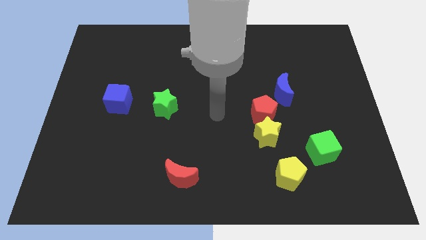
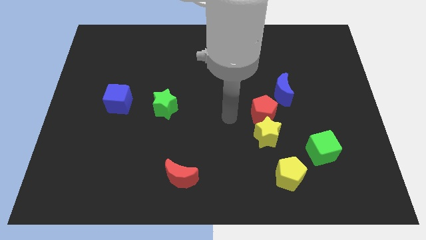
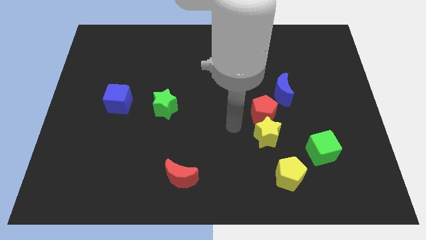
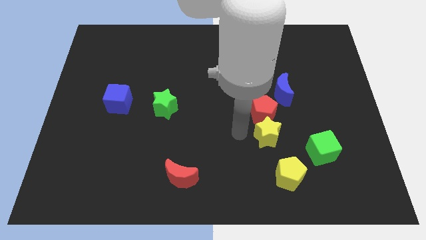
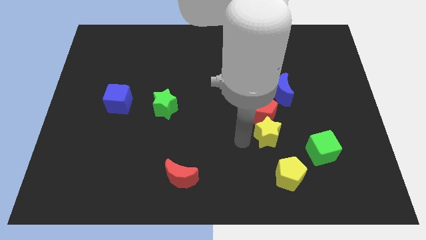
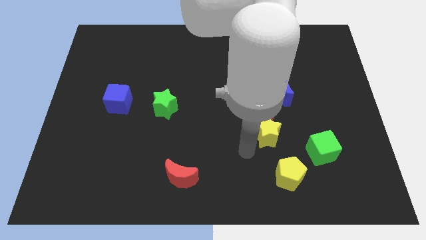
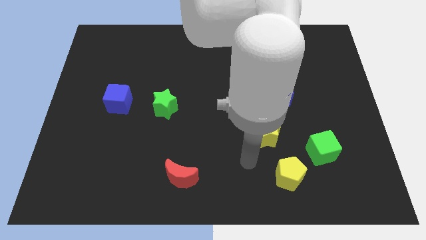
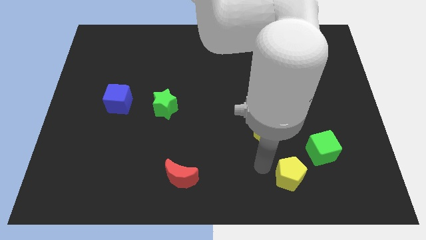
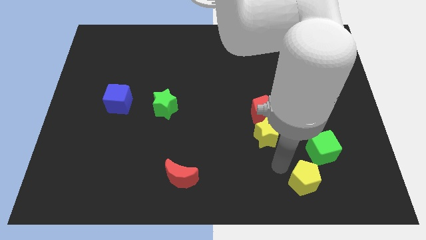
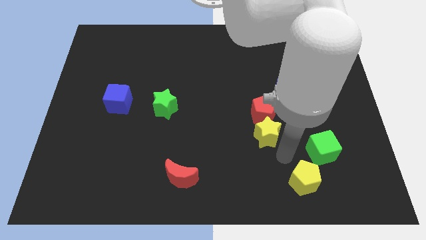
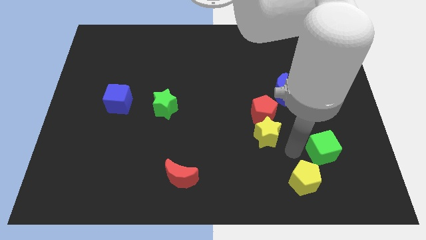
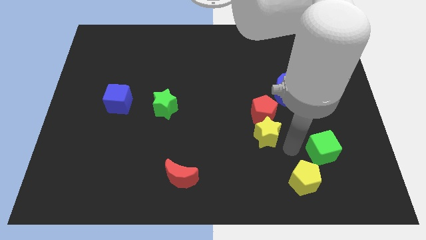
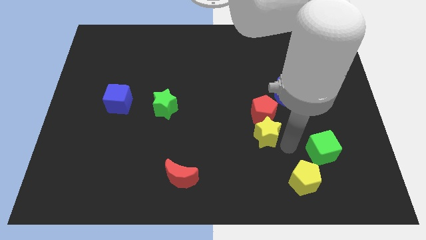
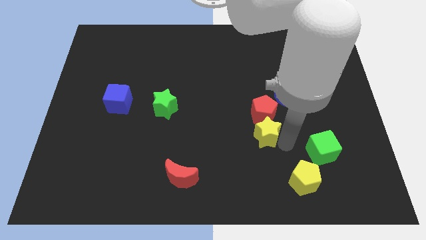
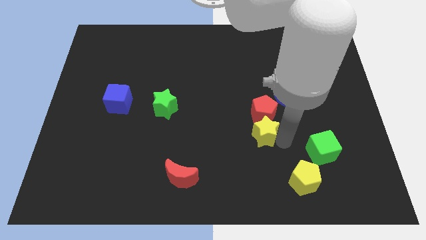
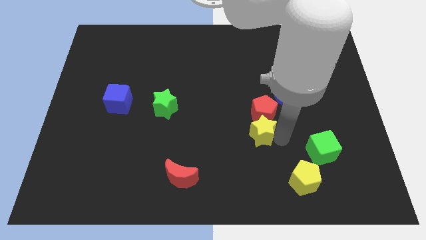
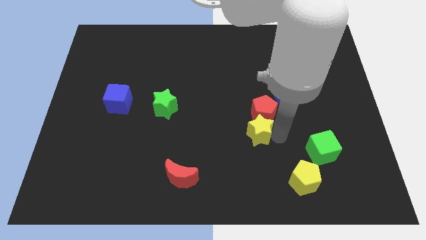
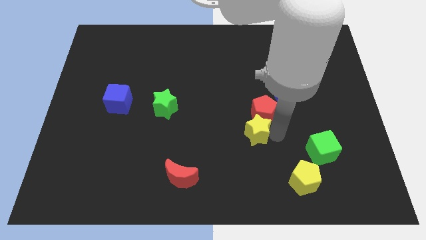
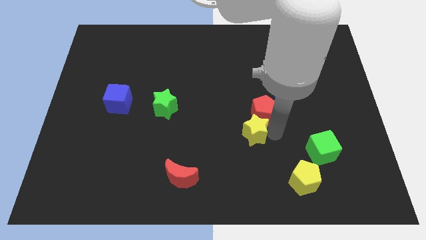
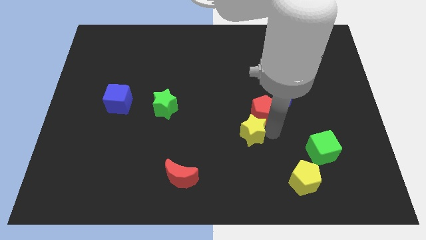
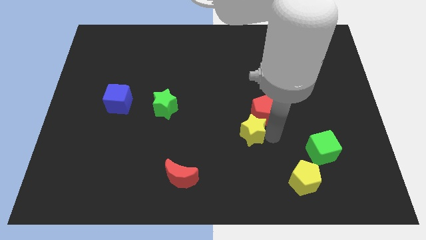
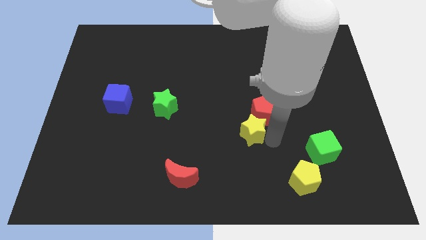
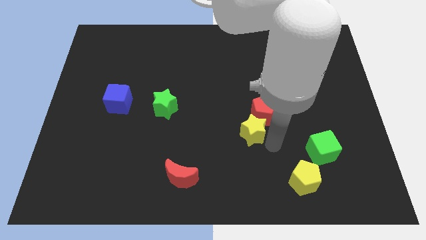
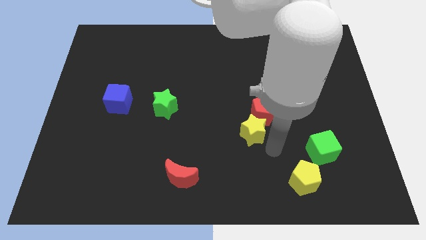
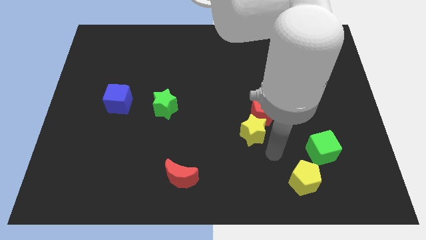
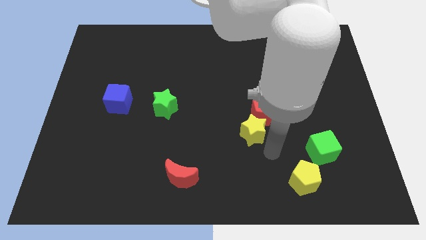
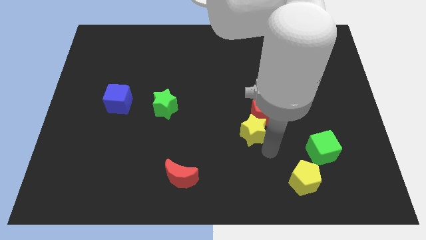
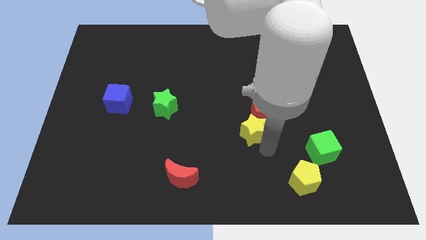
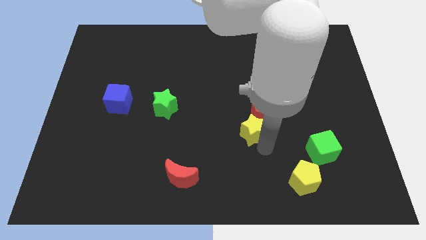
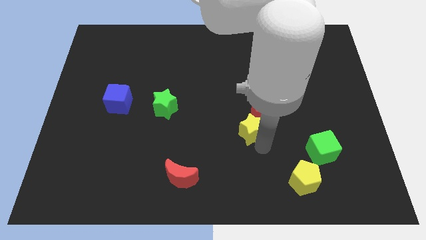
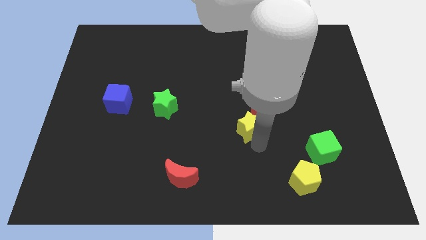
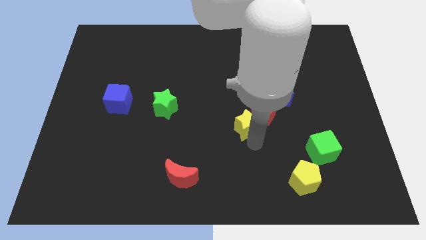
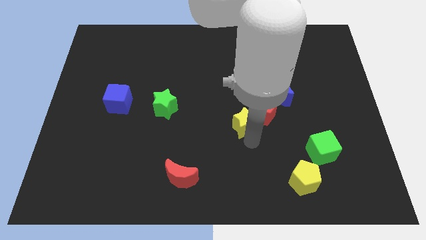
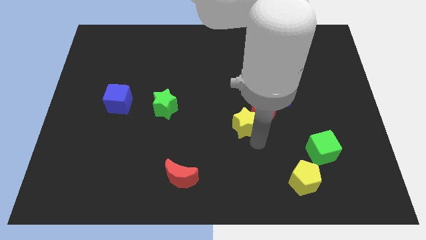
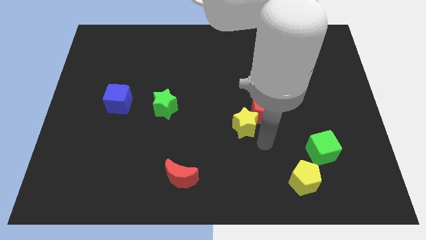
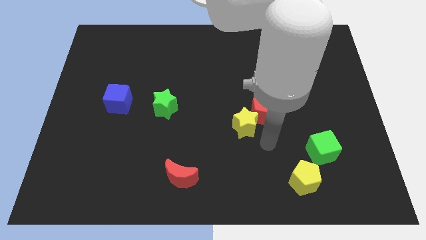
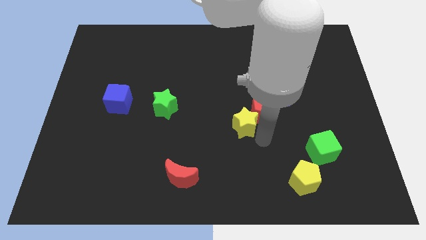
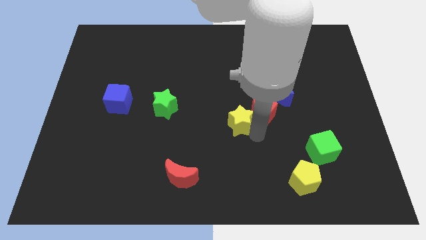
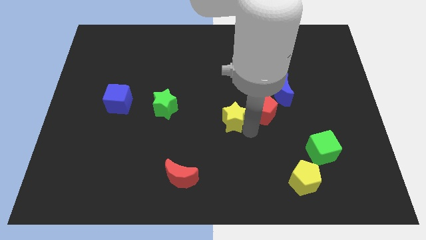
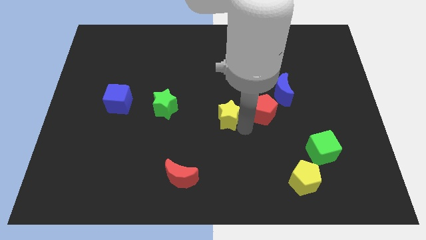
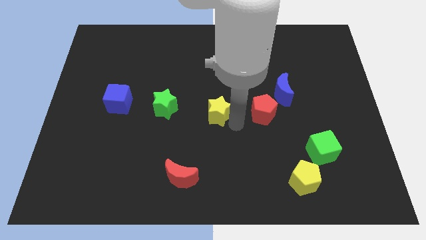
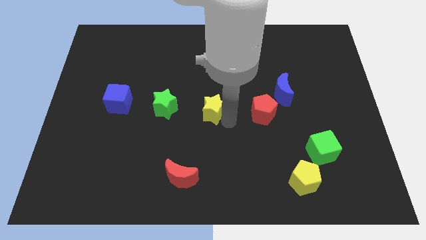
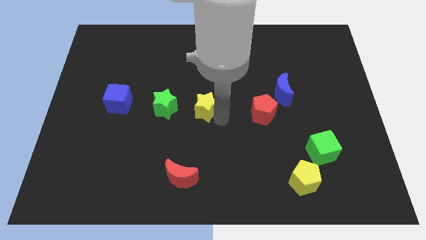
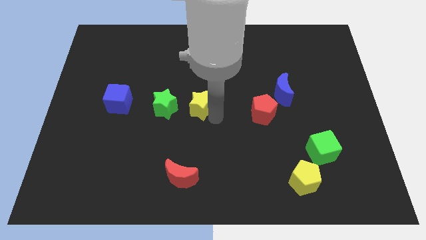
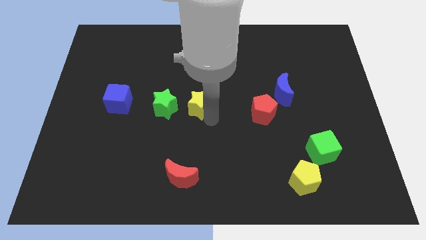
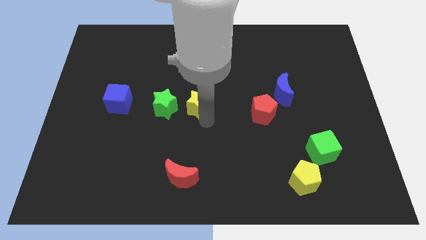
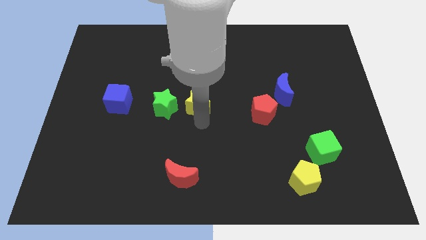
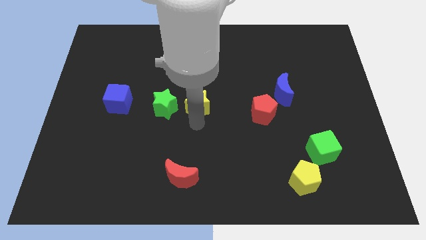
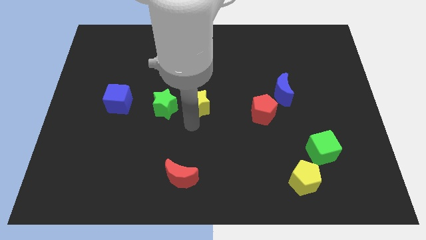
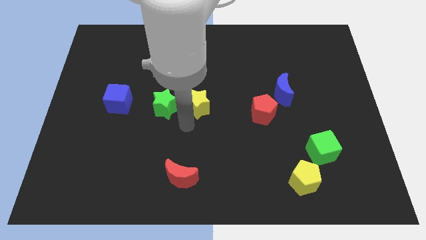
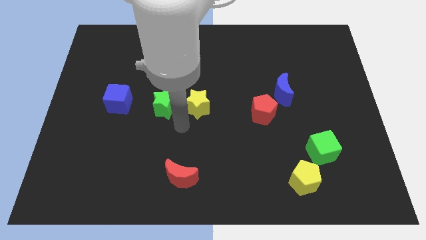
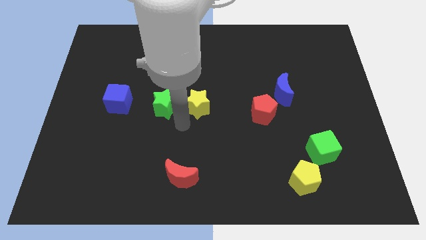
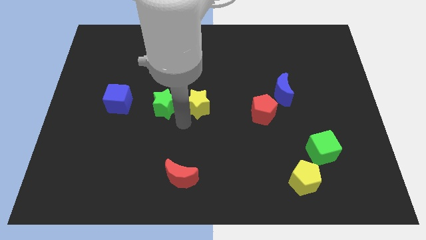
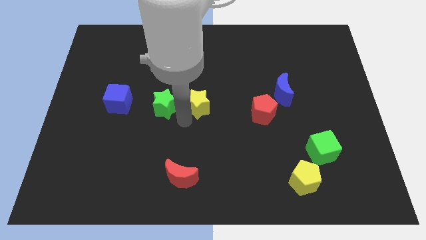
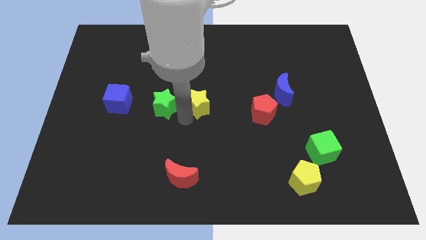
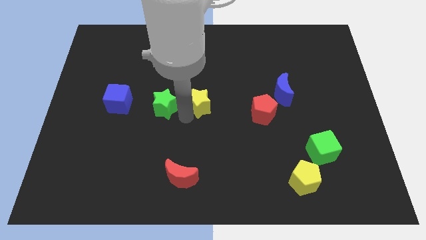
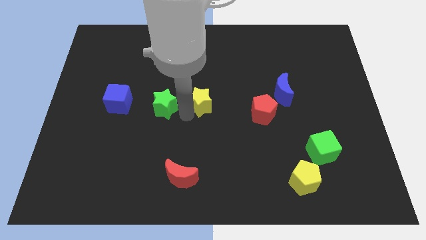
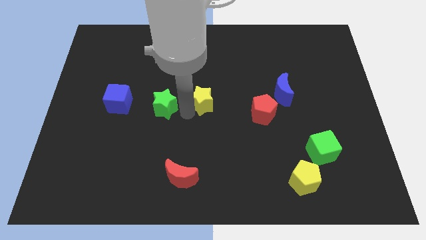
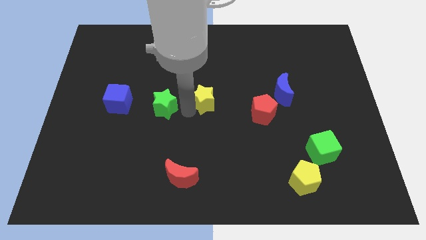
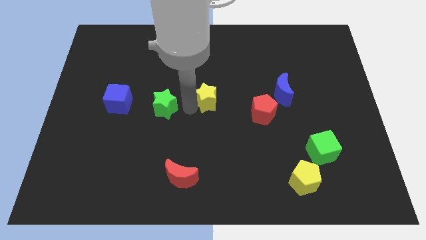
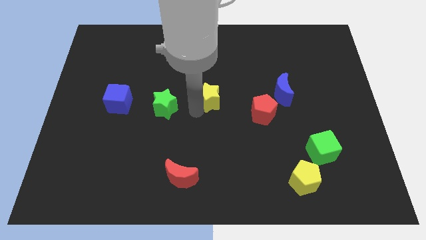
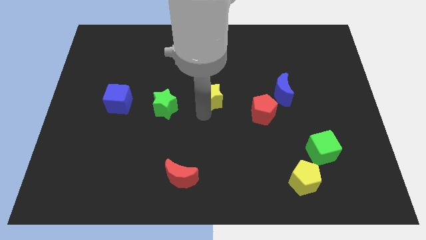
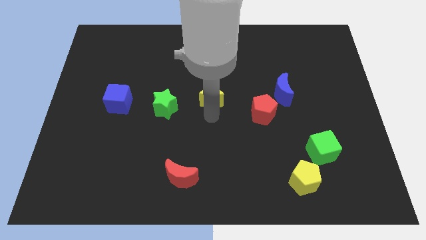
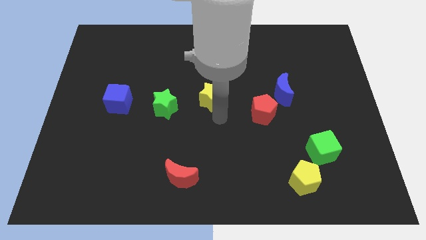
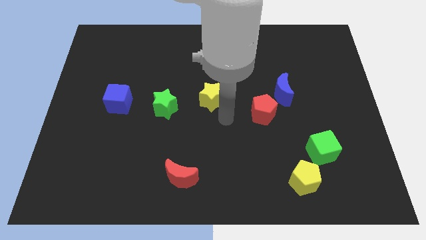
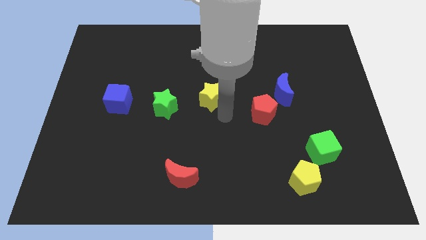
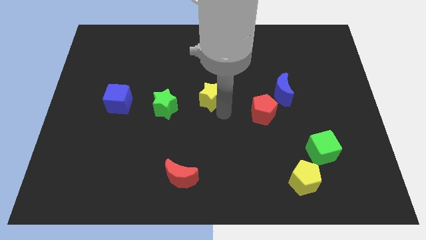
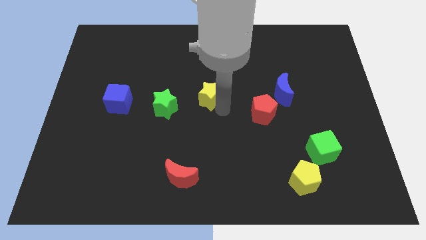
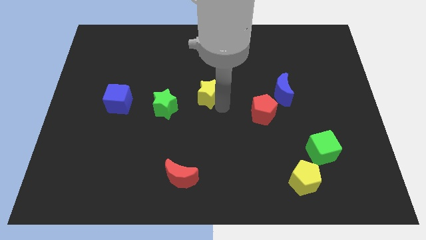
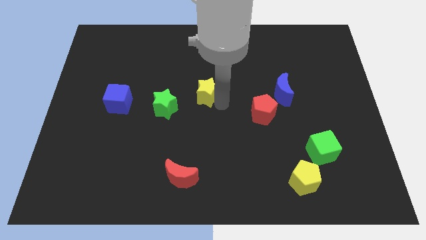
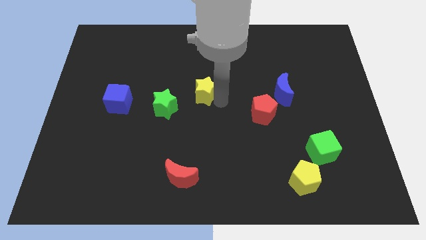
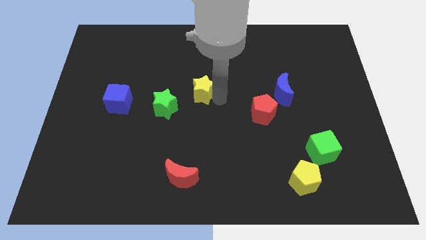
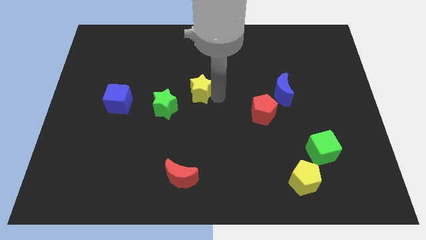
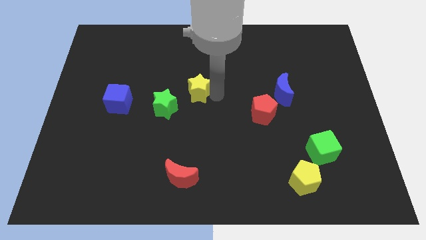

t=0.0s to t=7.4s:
push the yellow star upwards and to the left diagonally

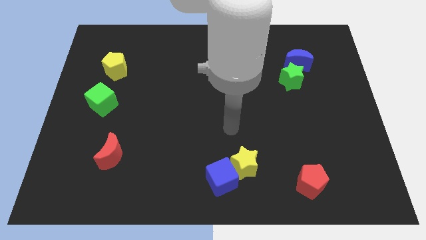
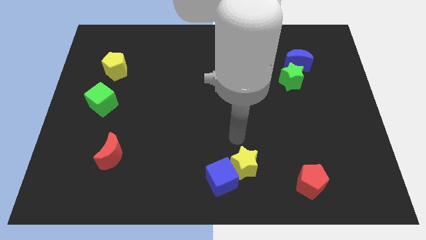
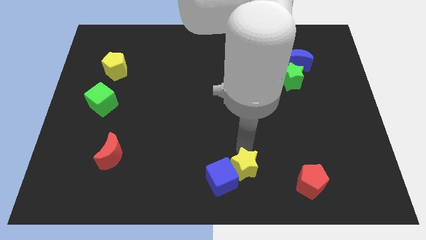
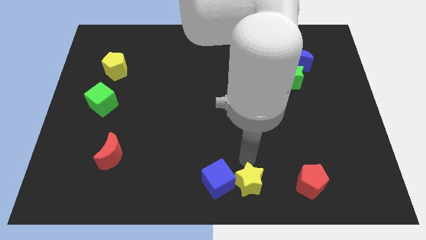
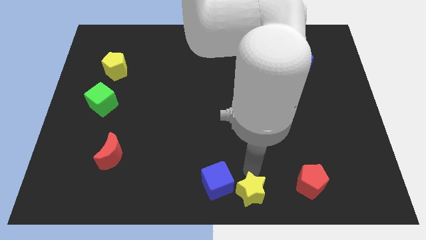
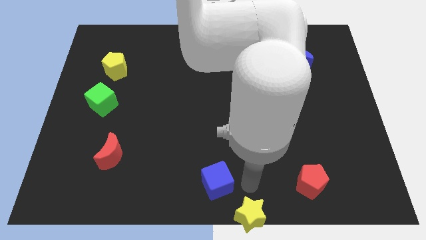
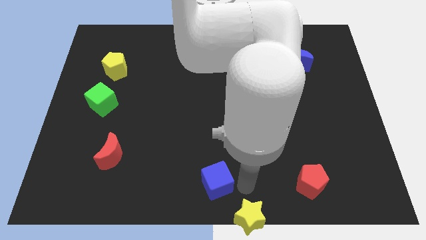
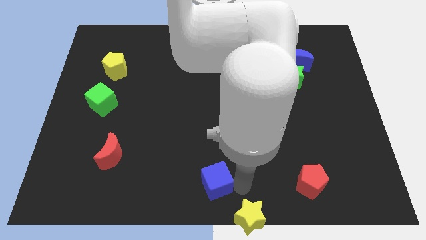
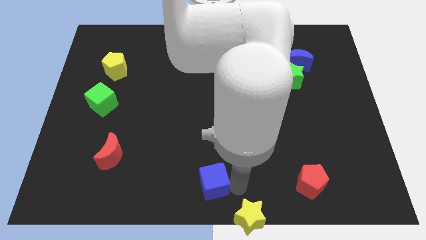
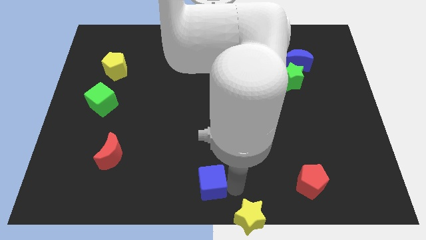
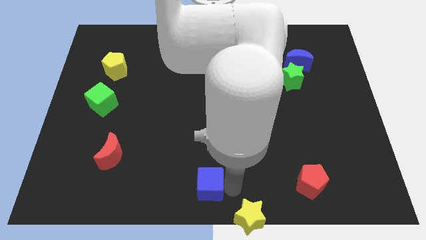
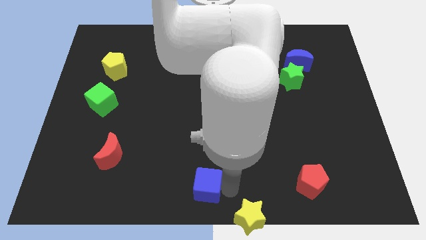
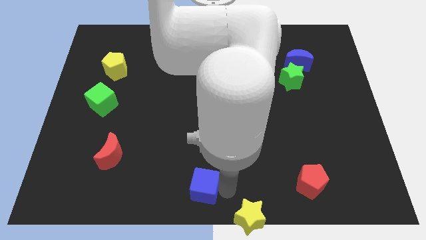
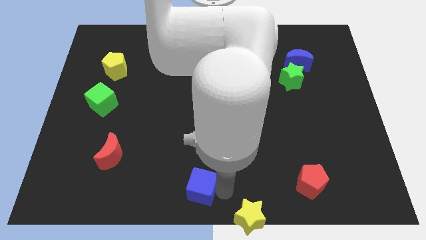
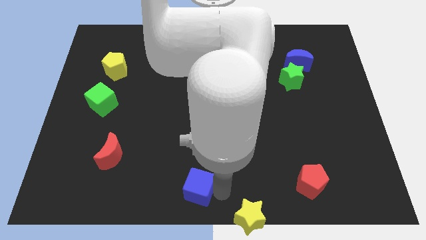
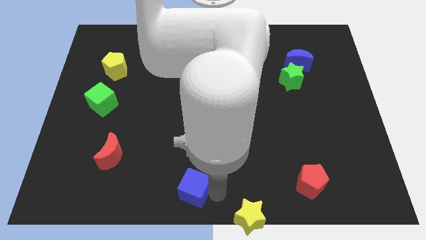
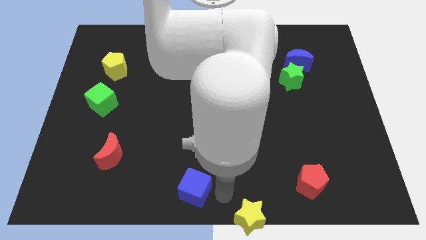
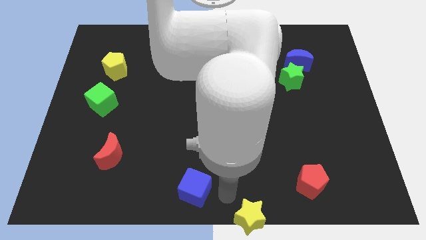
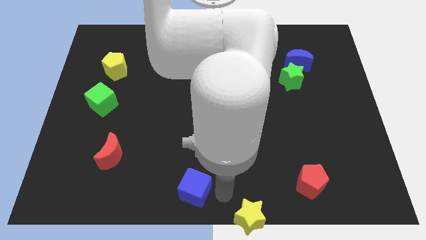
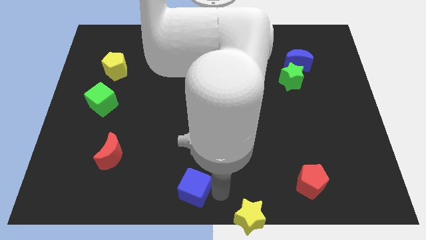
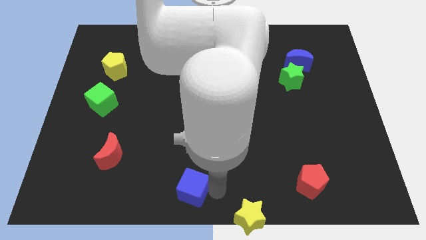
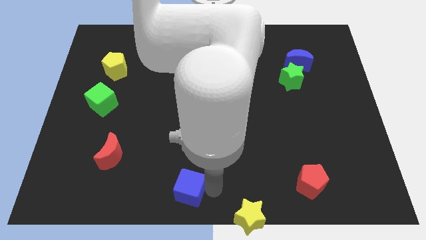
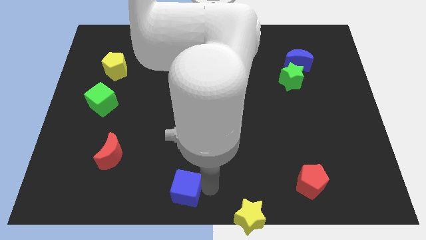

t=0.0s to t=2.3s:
move the blue cube a little left
